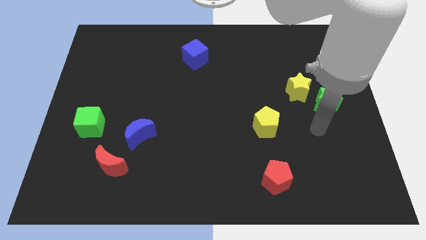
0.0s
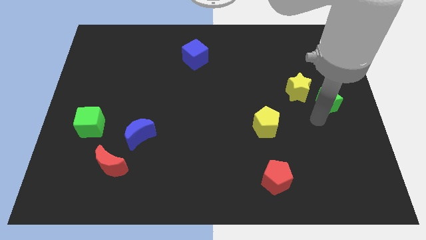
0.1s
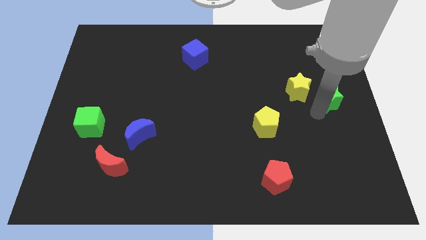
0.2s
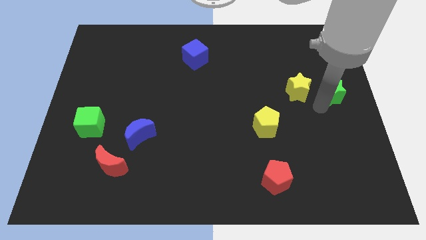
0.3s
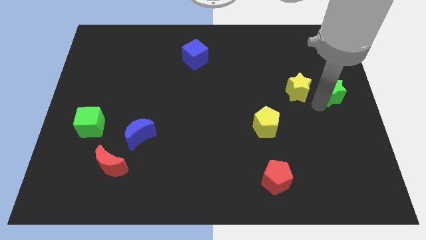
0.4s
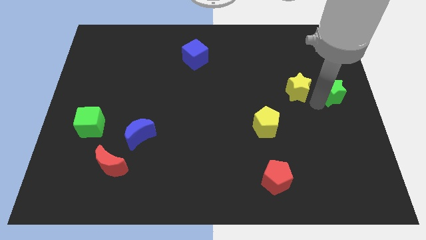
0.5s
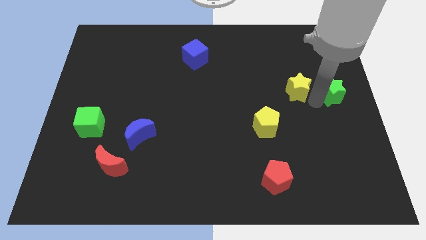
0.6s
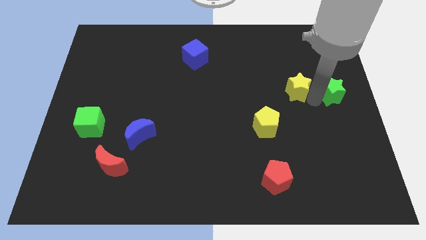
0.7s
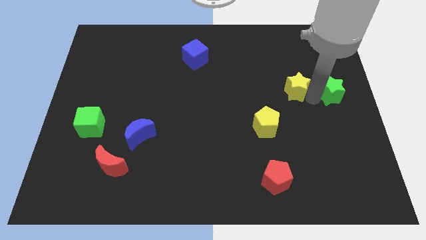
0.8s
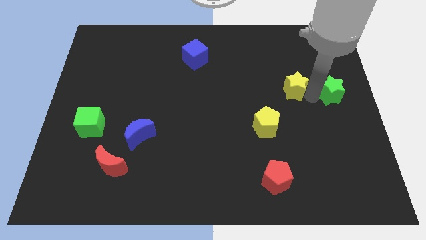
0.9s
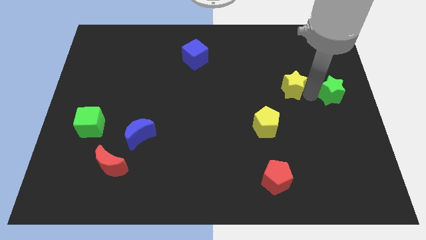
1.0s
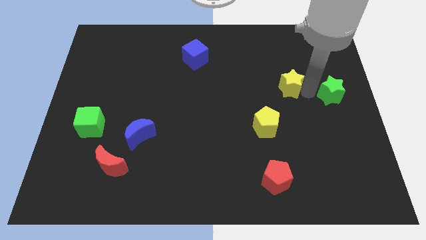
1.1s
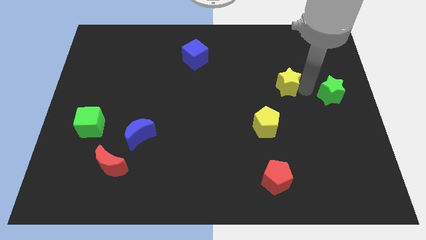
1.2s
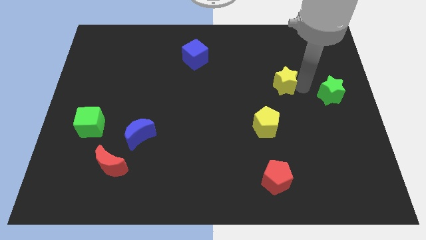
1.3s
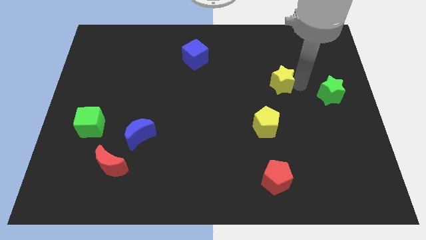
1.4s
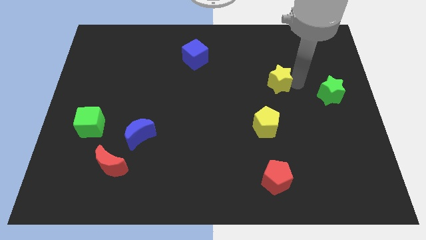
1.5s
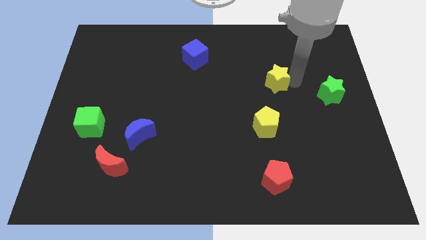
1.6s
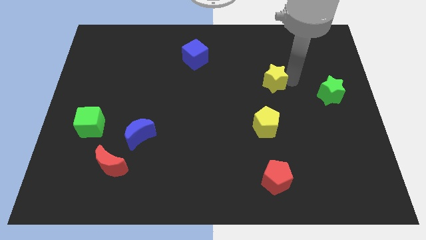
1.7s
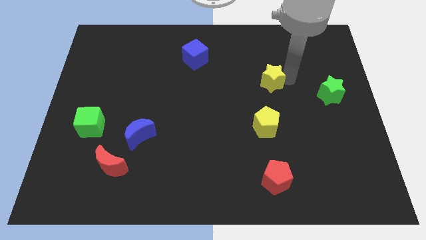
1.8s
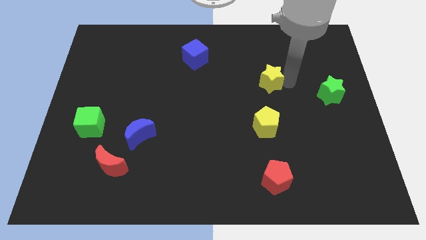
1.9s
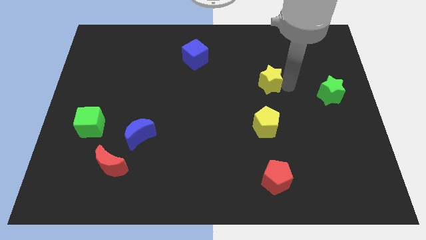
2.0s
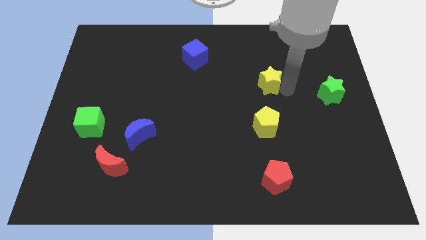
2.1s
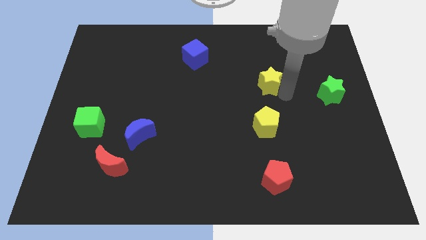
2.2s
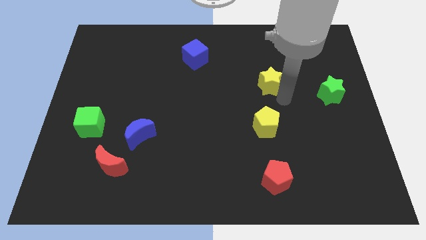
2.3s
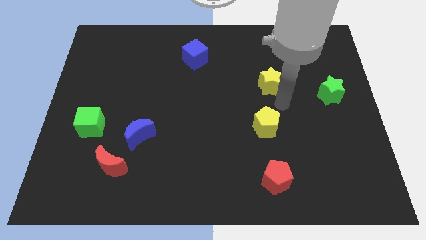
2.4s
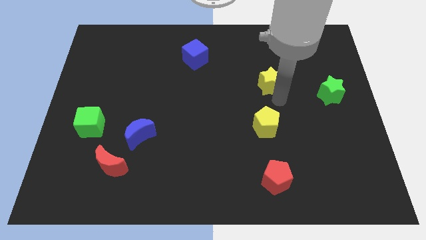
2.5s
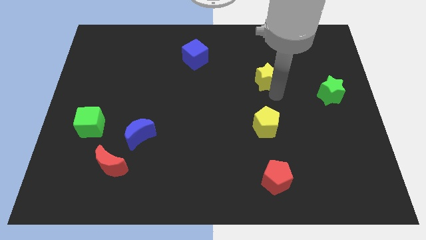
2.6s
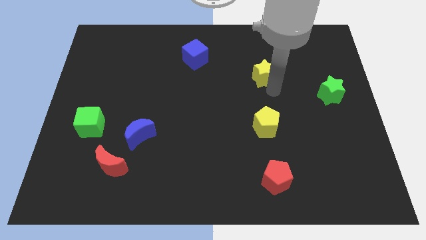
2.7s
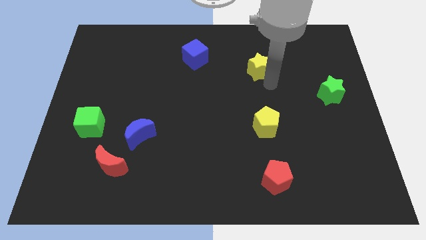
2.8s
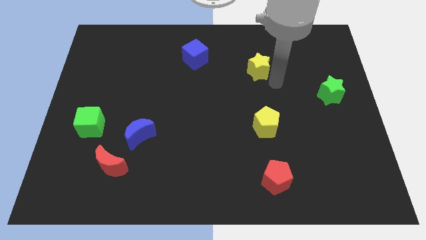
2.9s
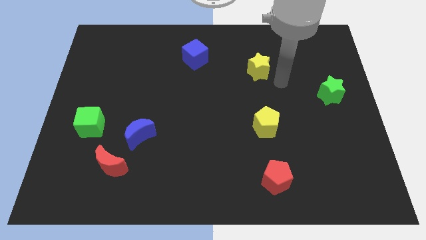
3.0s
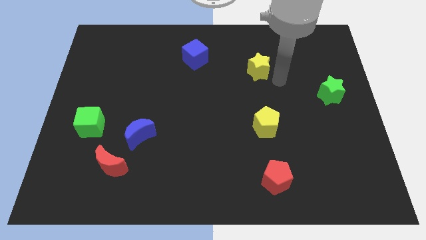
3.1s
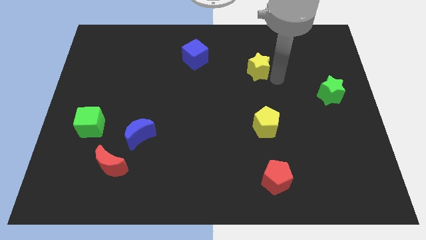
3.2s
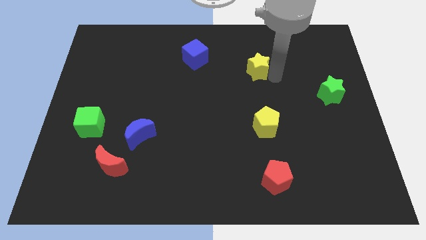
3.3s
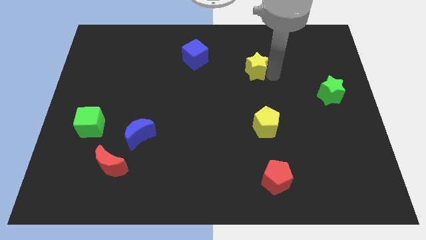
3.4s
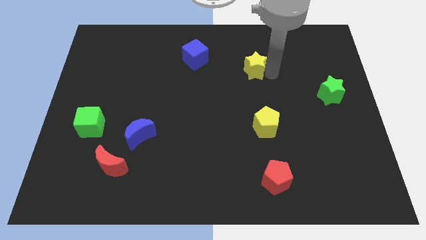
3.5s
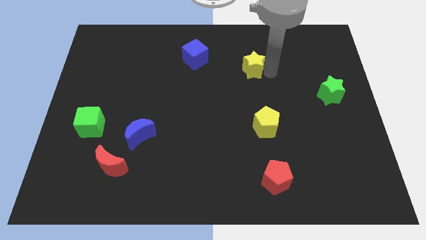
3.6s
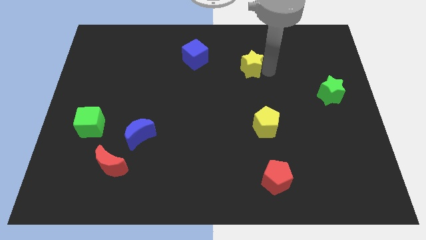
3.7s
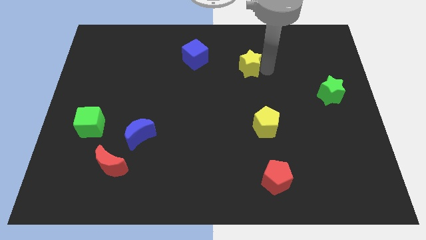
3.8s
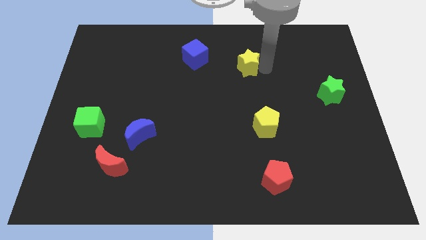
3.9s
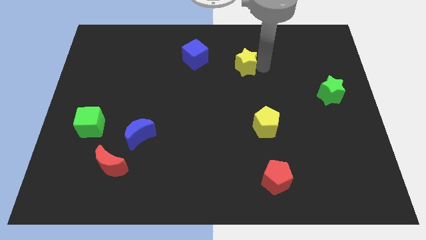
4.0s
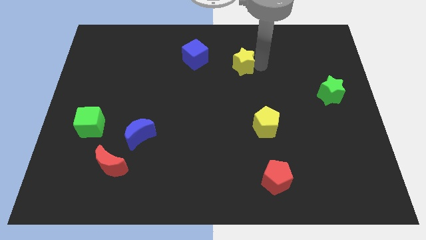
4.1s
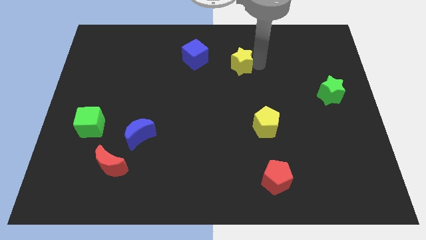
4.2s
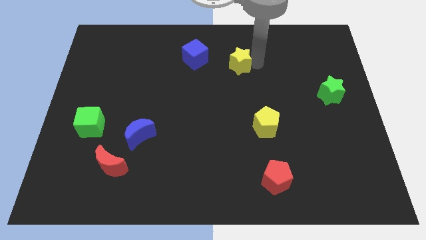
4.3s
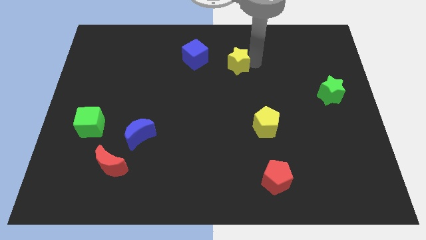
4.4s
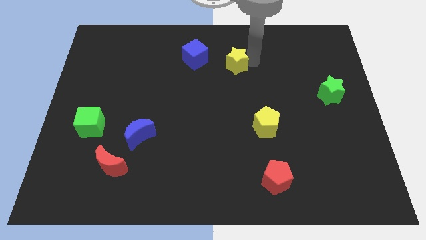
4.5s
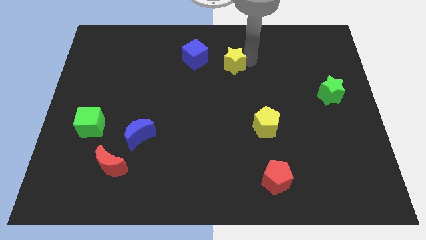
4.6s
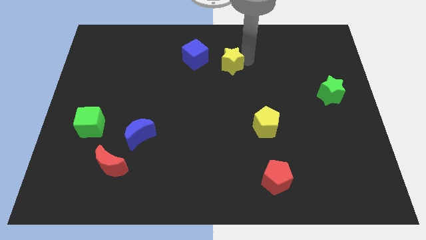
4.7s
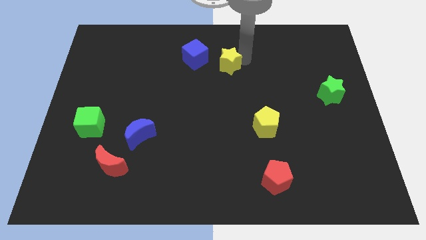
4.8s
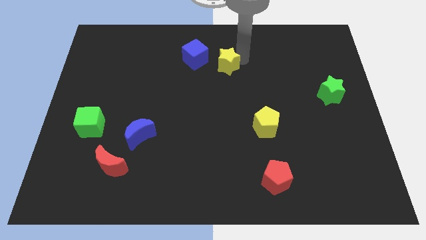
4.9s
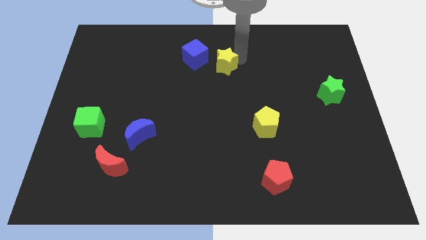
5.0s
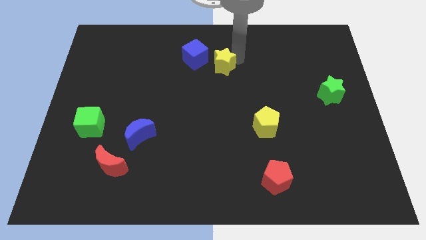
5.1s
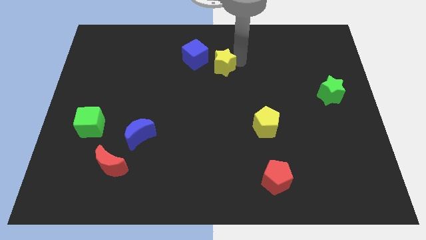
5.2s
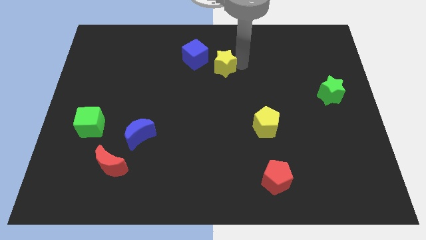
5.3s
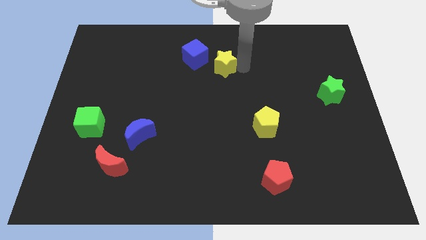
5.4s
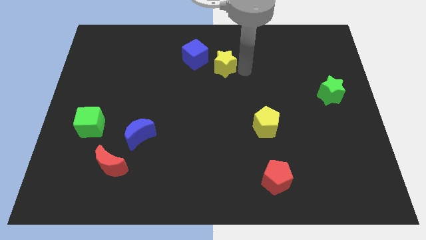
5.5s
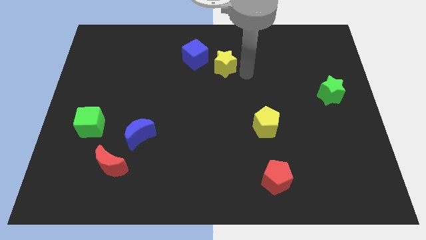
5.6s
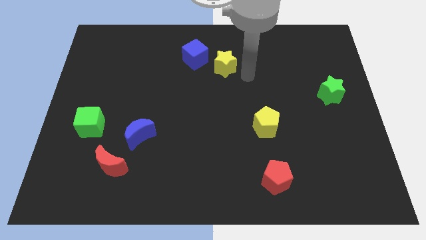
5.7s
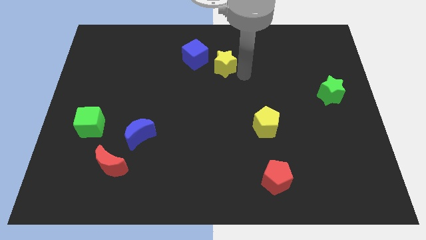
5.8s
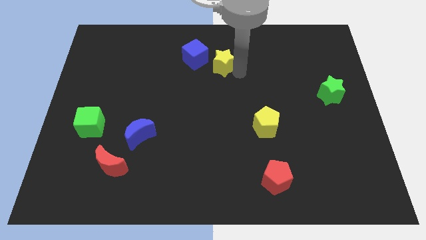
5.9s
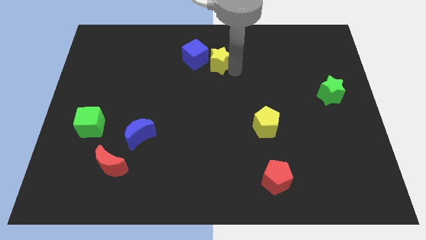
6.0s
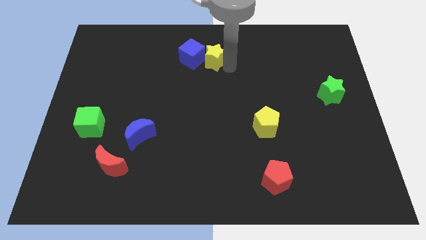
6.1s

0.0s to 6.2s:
slide the yellow star next to the blue cube

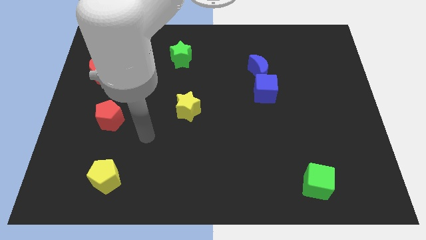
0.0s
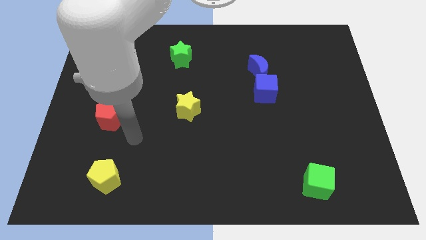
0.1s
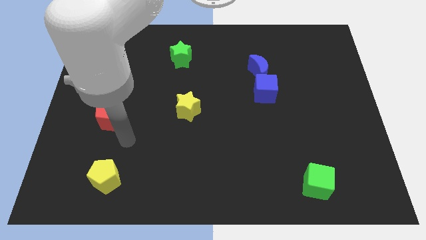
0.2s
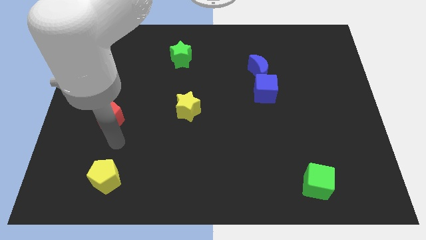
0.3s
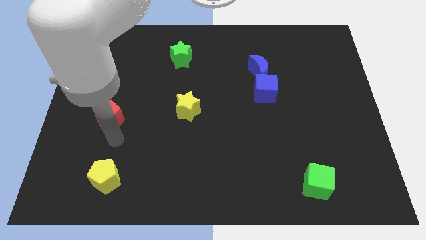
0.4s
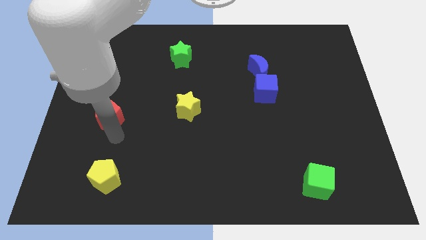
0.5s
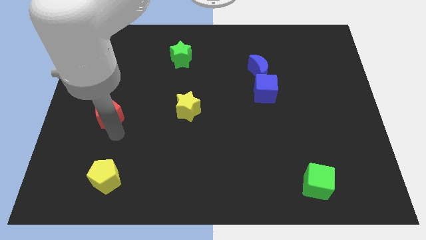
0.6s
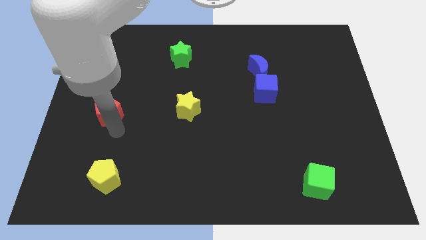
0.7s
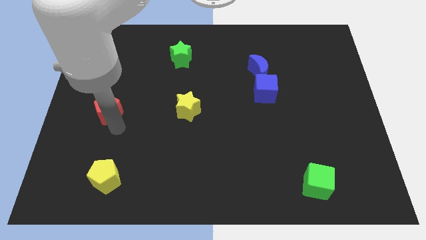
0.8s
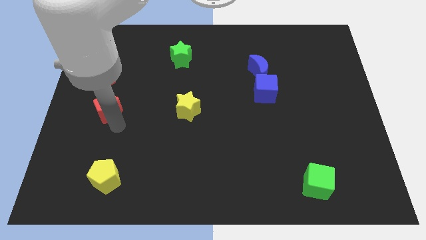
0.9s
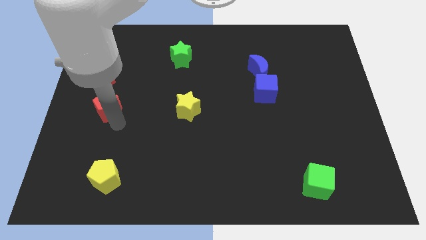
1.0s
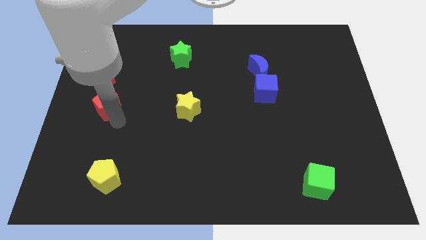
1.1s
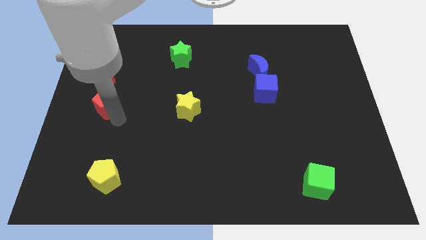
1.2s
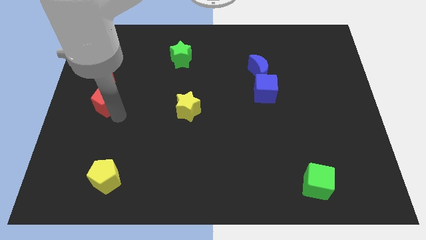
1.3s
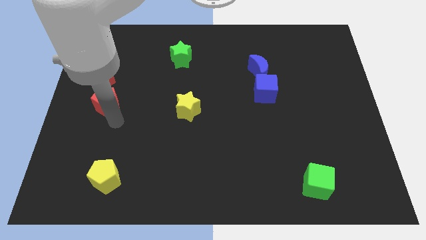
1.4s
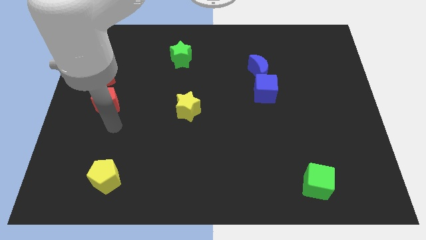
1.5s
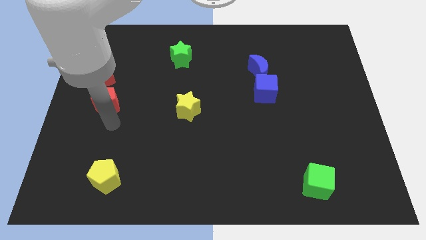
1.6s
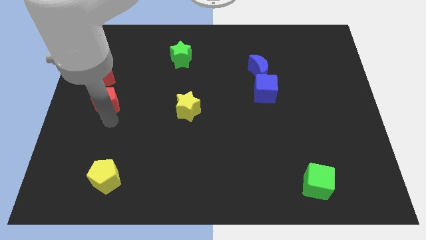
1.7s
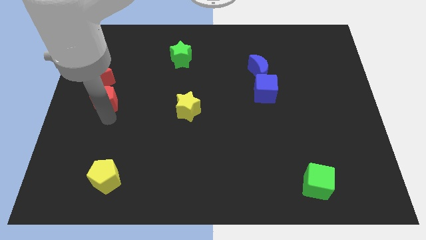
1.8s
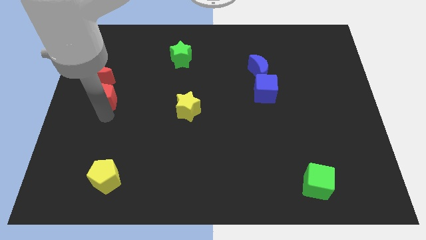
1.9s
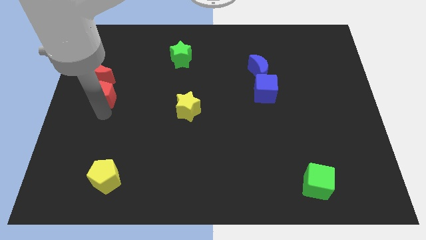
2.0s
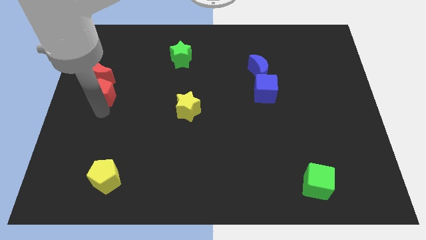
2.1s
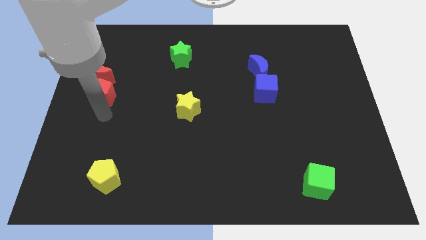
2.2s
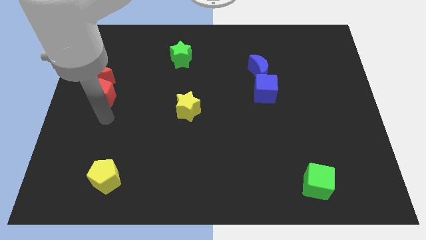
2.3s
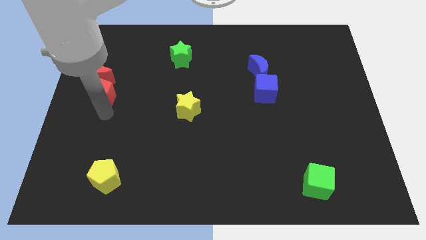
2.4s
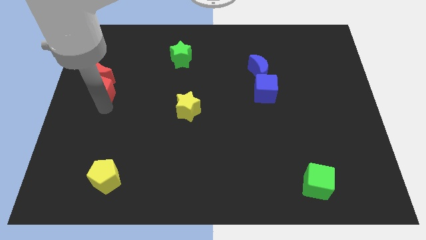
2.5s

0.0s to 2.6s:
move the red pentagon to the red moon
